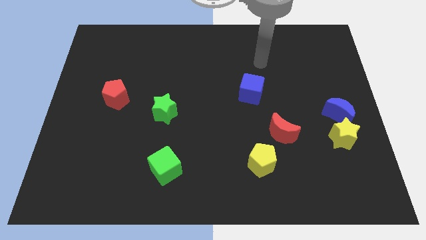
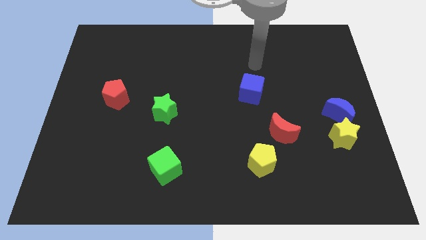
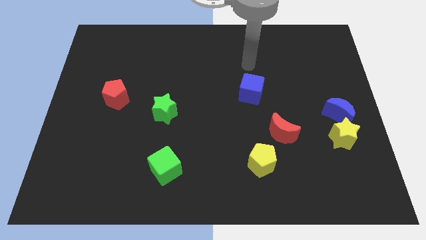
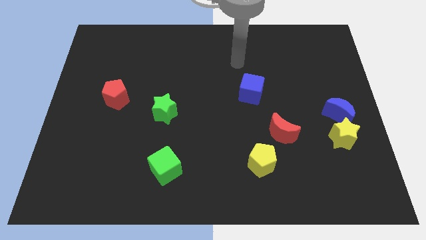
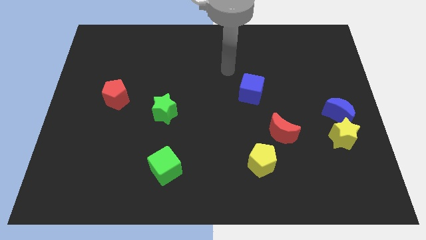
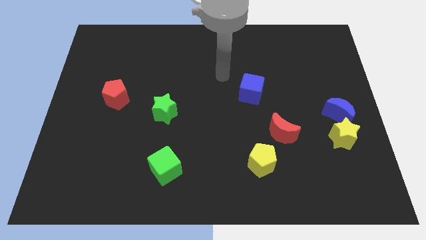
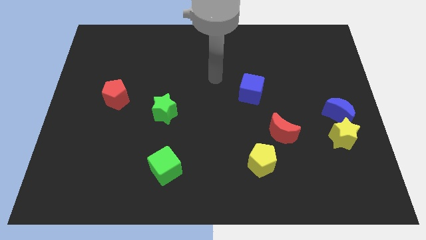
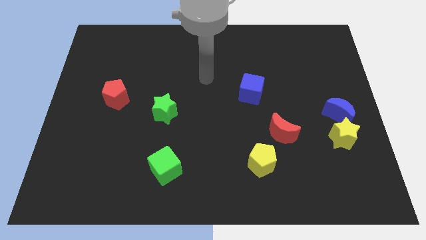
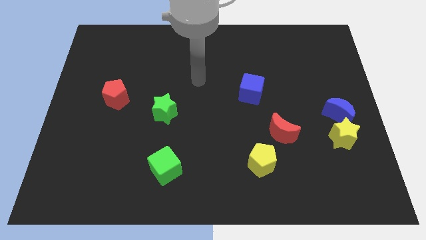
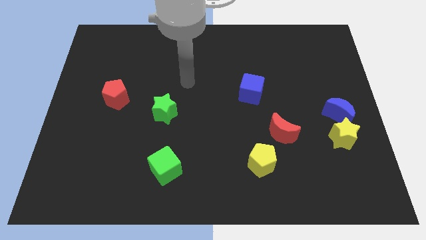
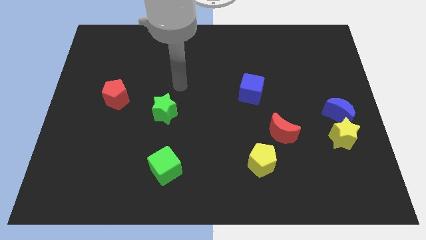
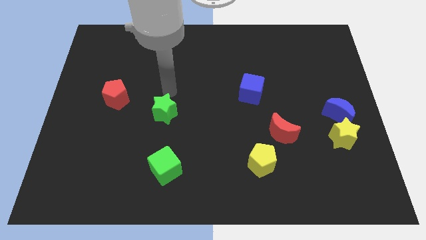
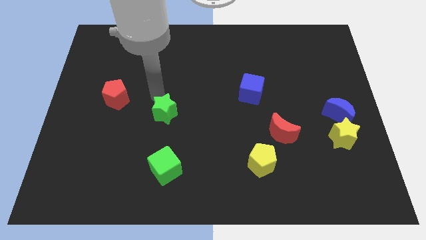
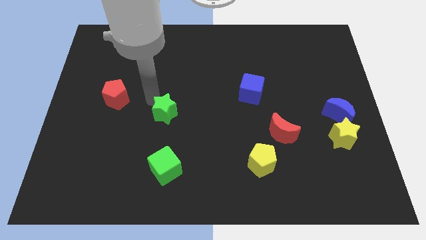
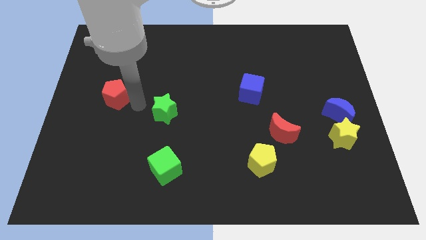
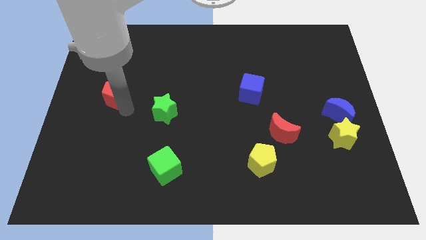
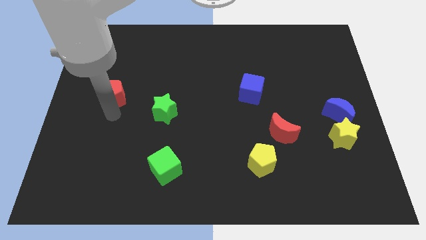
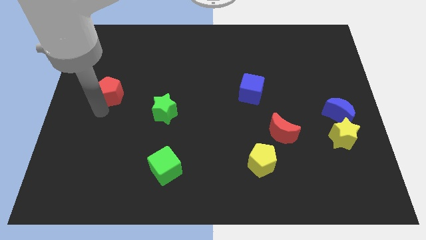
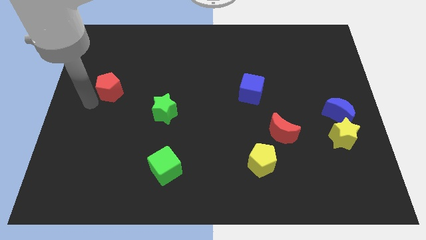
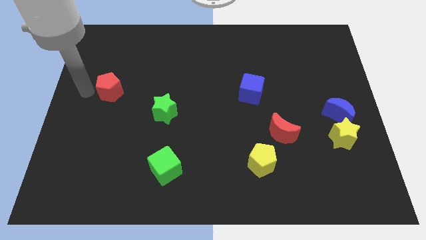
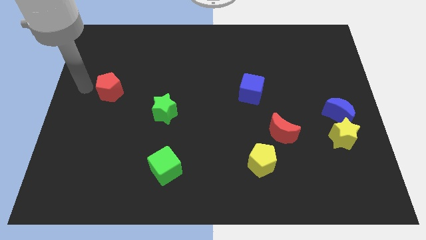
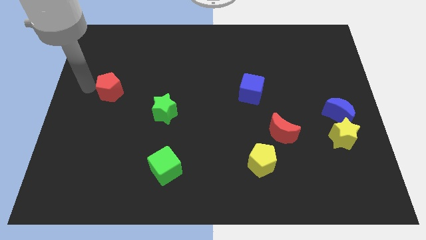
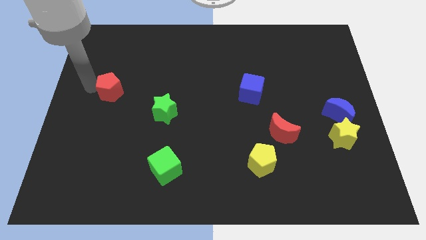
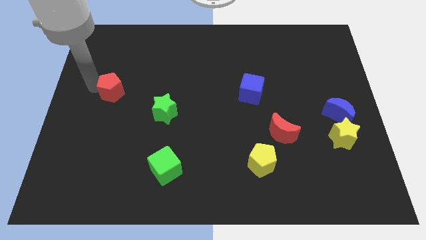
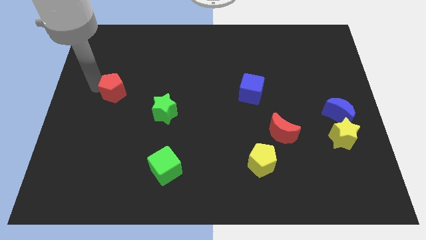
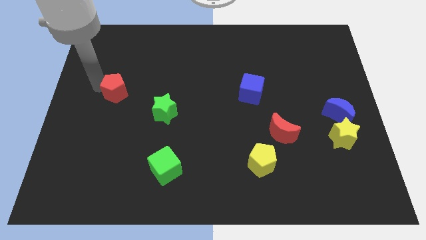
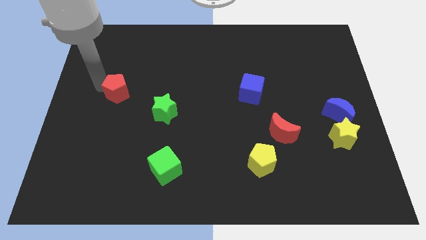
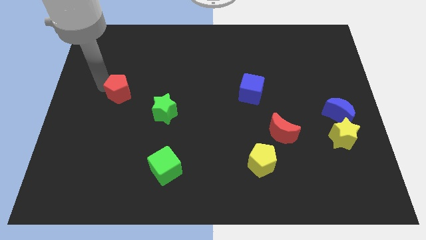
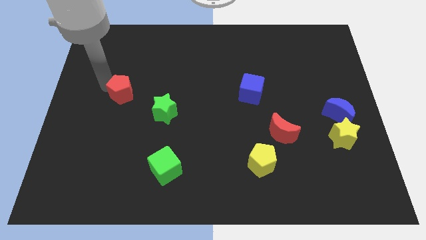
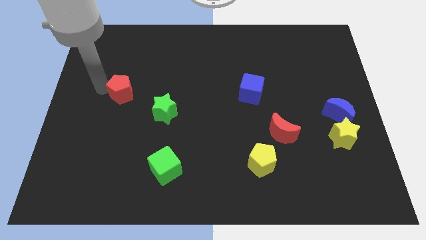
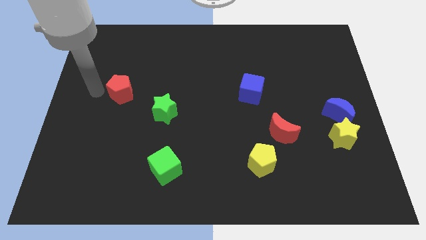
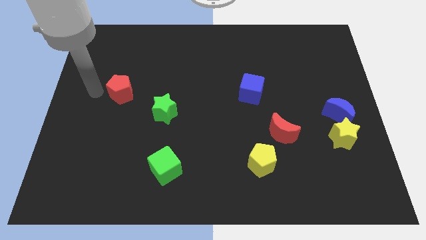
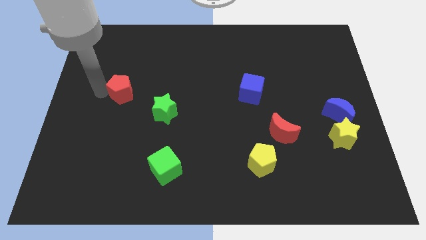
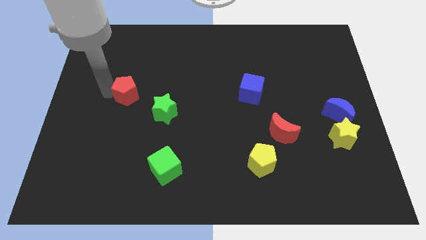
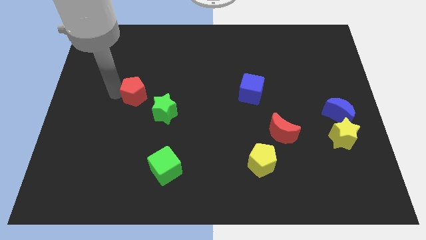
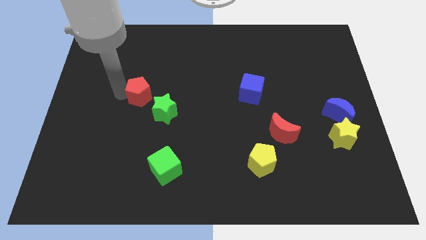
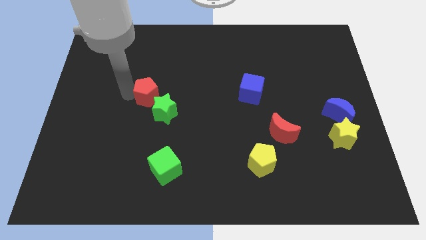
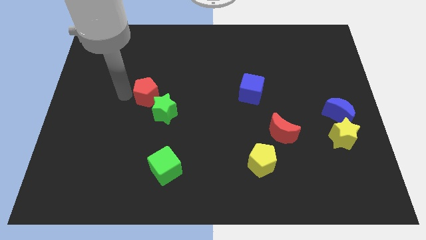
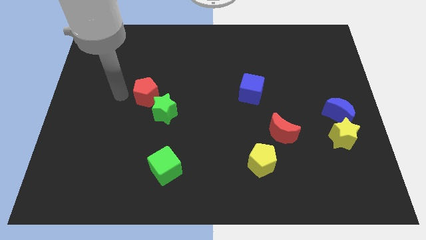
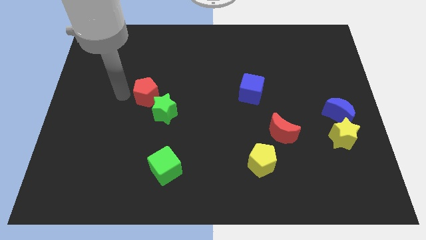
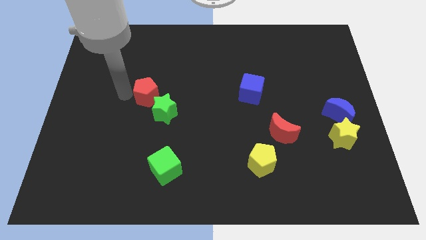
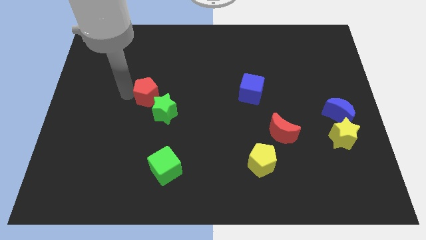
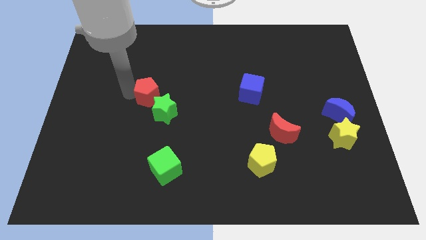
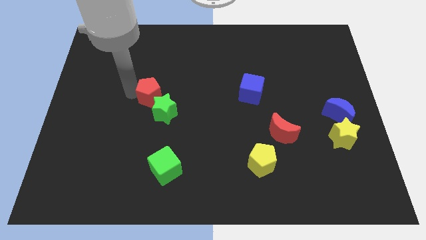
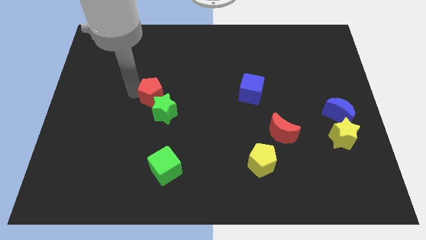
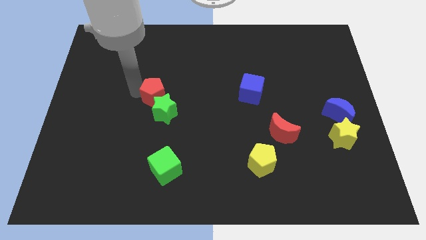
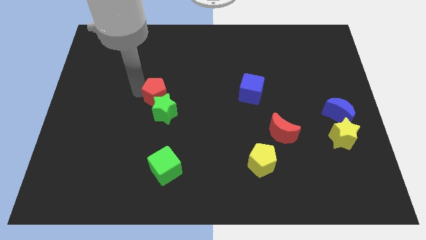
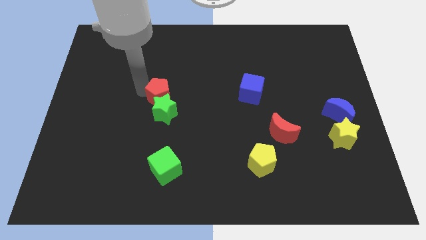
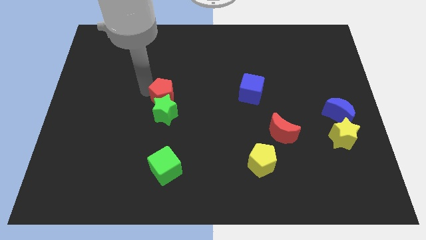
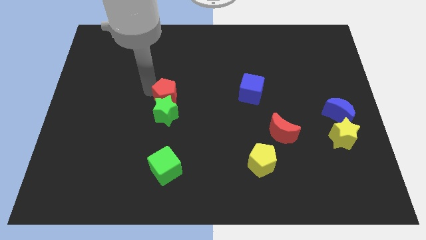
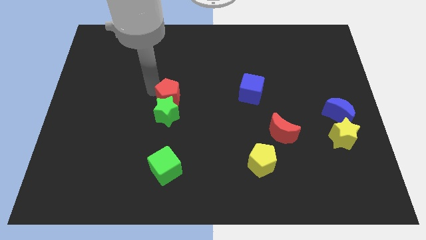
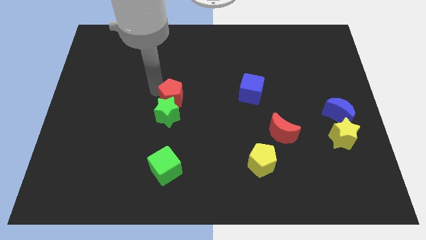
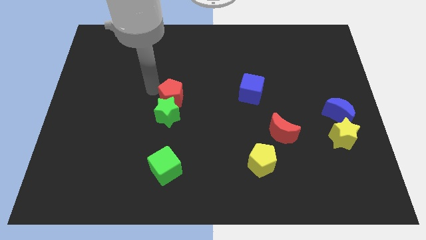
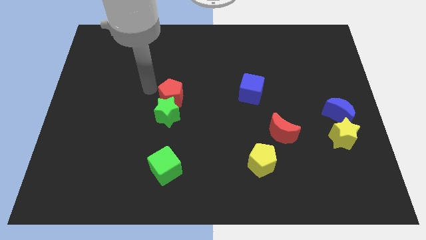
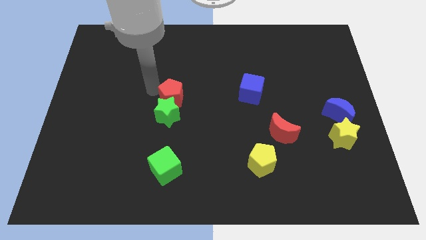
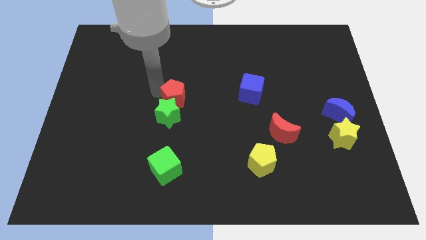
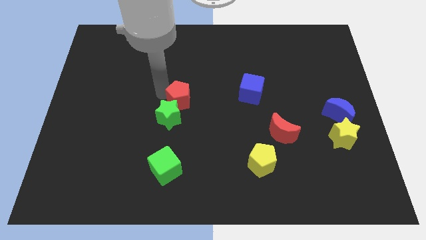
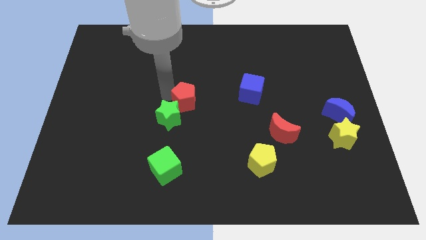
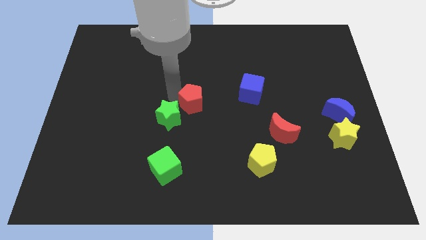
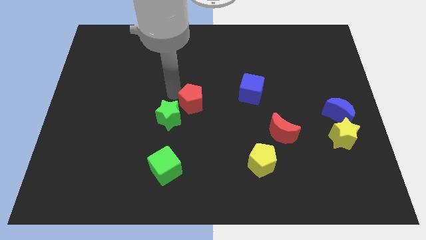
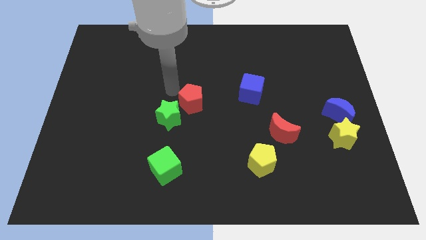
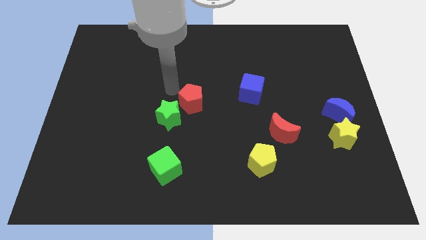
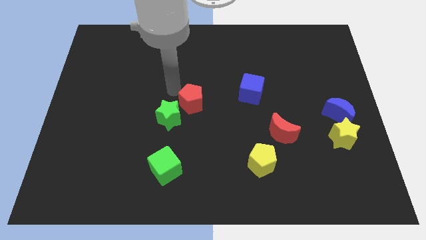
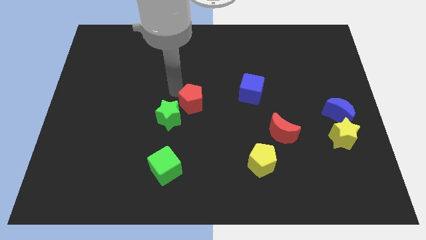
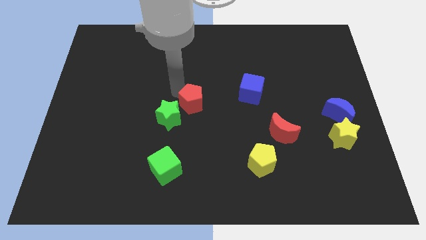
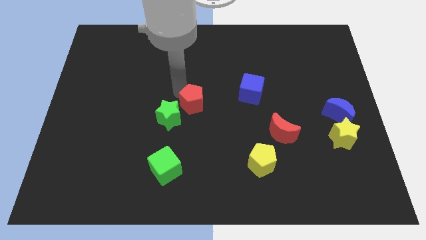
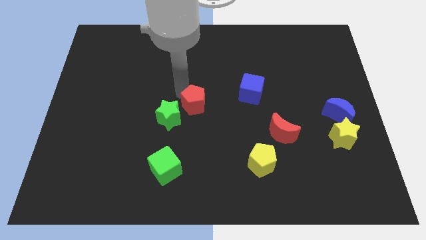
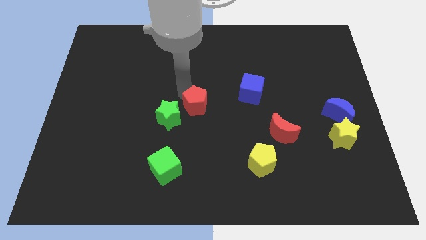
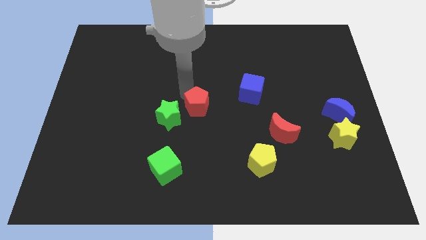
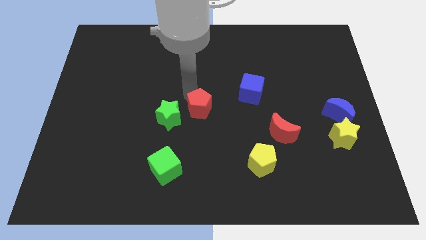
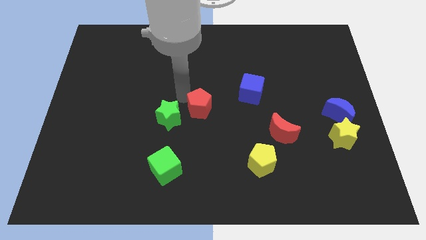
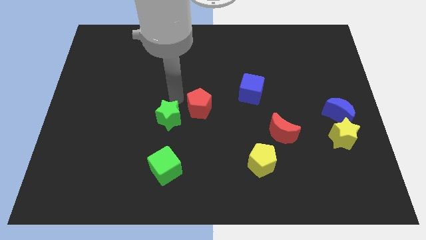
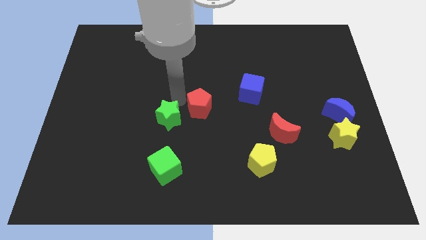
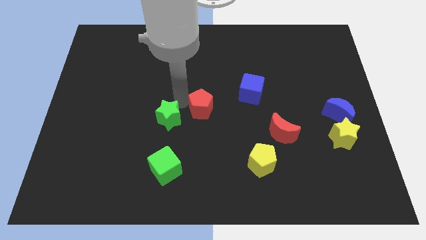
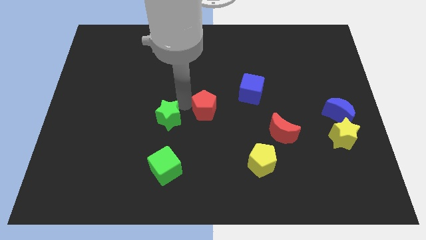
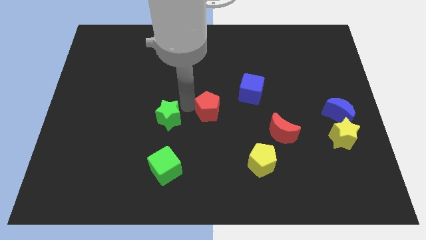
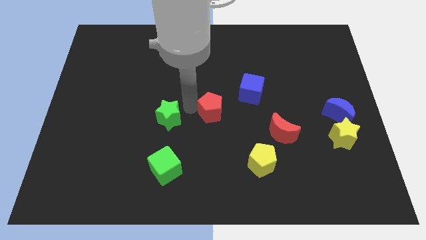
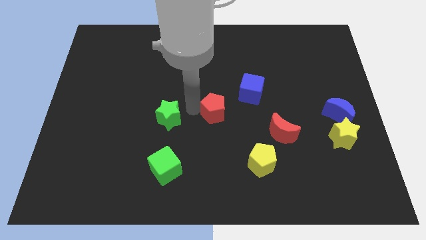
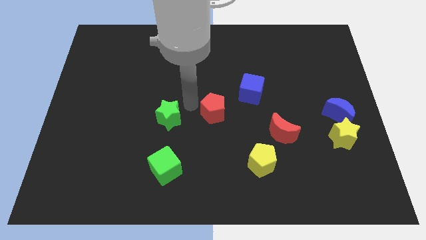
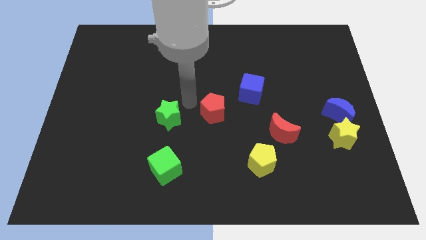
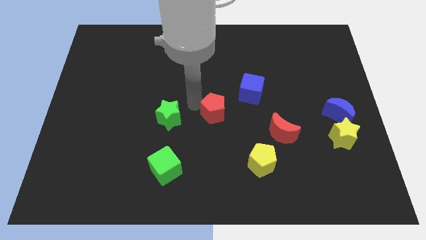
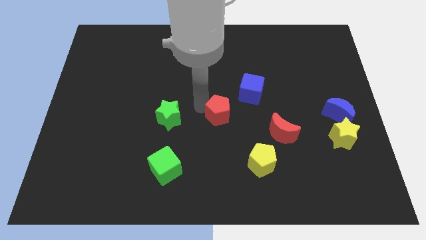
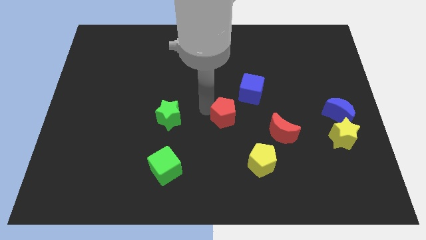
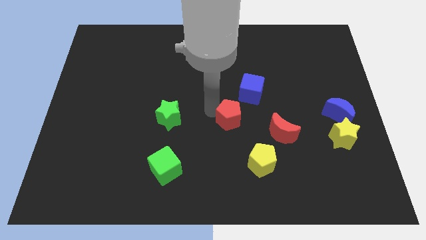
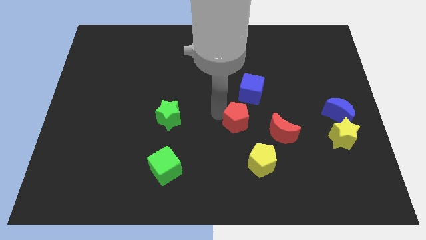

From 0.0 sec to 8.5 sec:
put the red pentagon to the bottom side of the blue cube
